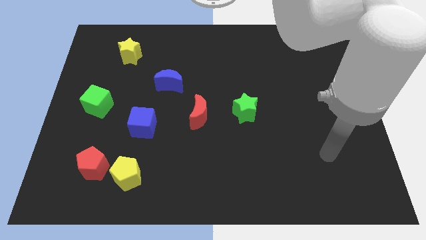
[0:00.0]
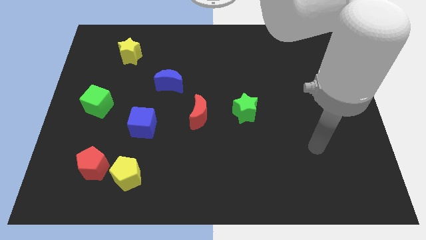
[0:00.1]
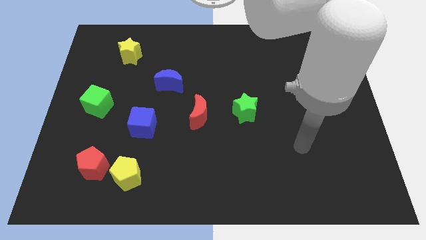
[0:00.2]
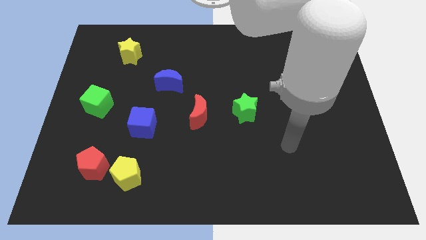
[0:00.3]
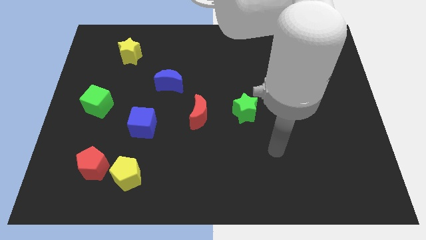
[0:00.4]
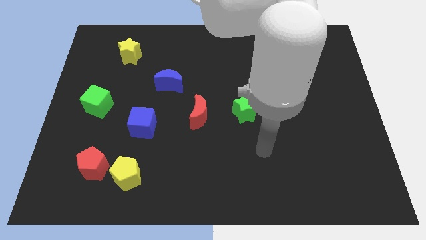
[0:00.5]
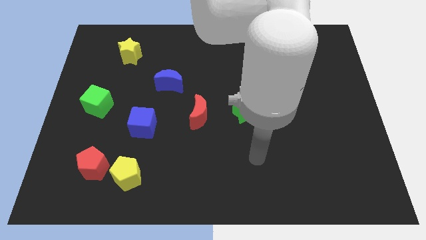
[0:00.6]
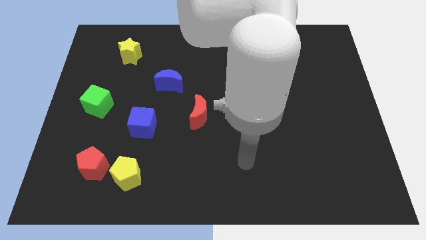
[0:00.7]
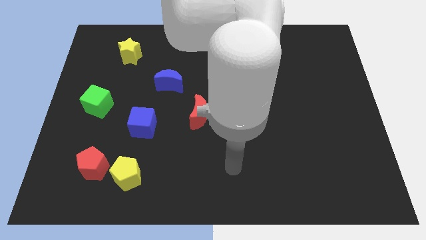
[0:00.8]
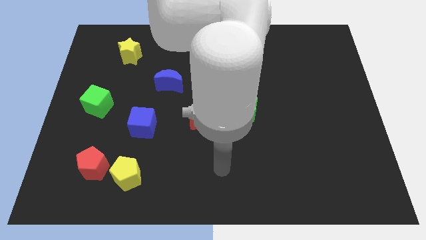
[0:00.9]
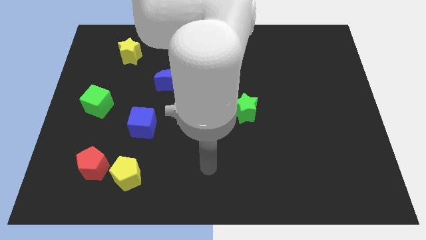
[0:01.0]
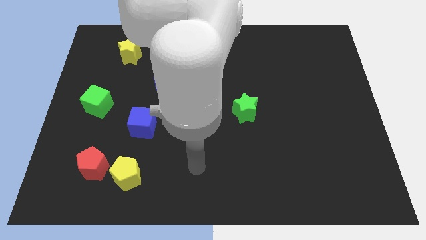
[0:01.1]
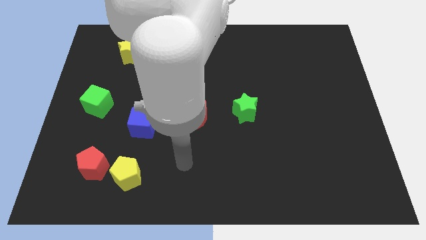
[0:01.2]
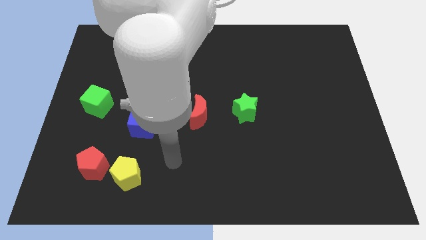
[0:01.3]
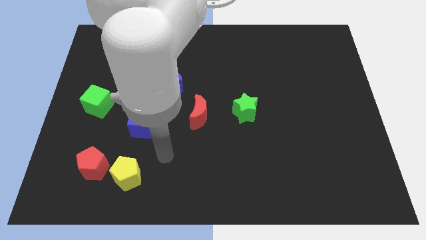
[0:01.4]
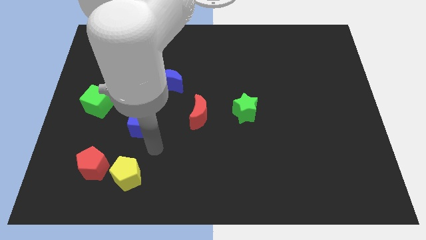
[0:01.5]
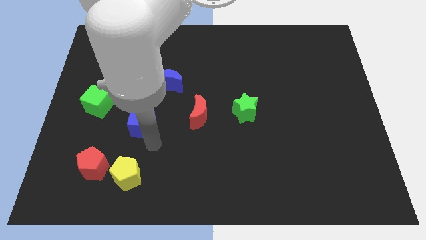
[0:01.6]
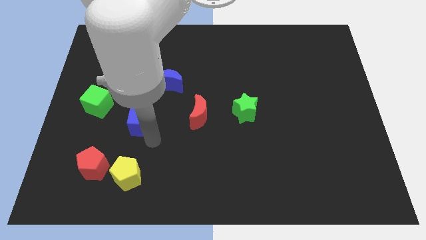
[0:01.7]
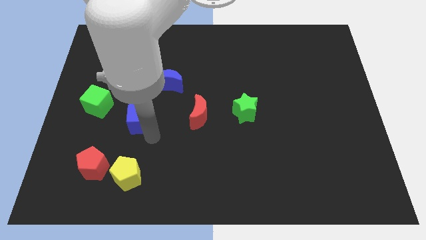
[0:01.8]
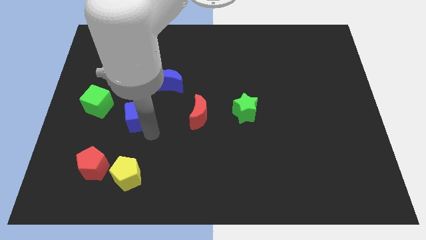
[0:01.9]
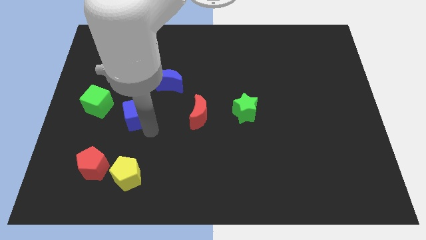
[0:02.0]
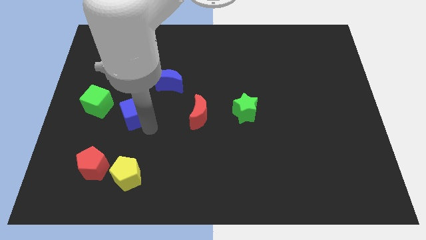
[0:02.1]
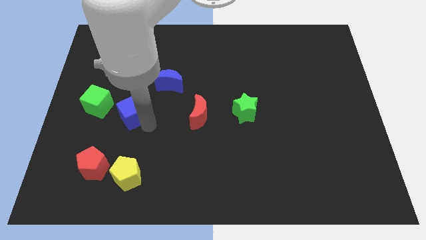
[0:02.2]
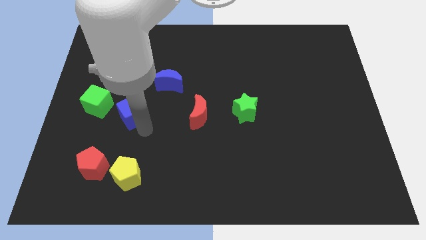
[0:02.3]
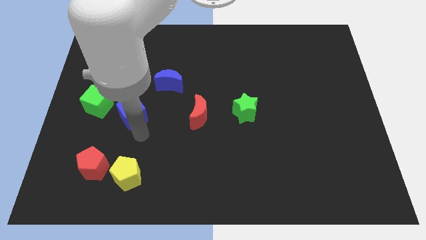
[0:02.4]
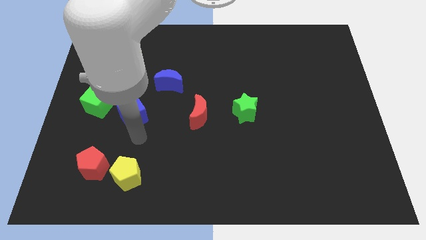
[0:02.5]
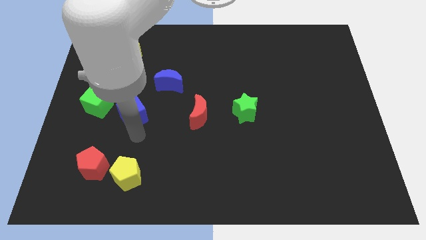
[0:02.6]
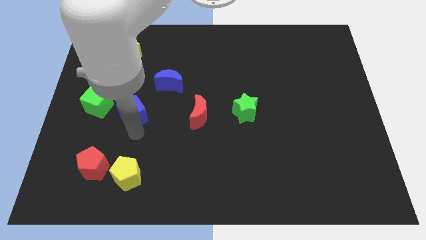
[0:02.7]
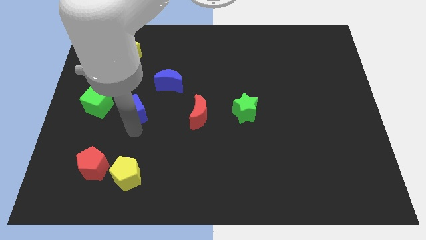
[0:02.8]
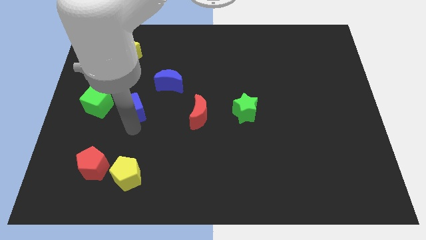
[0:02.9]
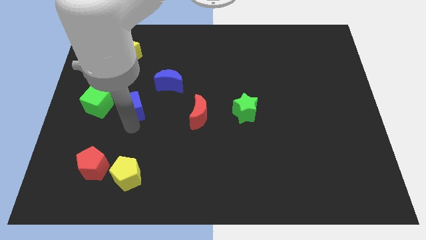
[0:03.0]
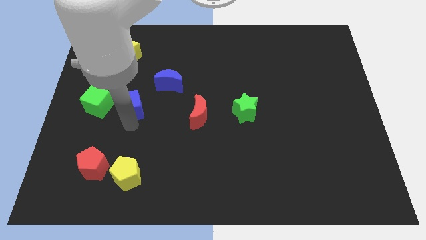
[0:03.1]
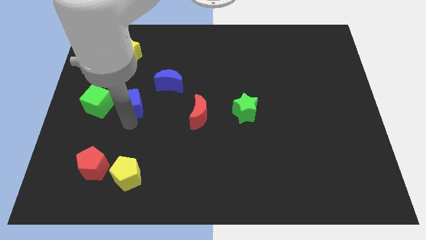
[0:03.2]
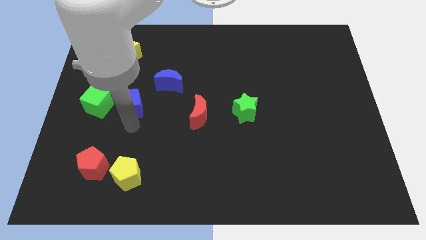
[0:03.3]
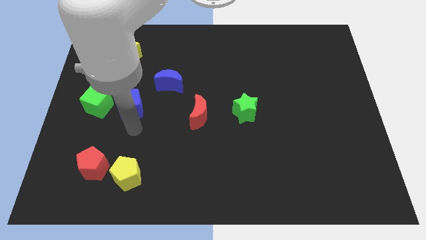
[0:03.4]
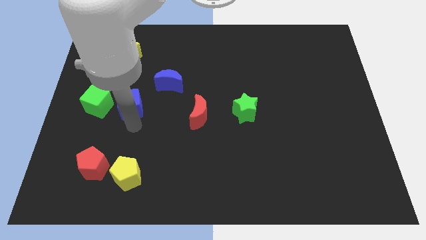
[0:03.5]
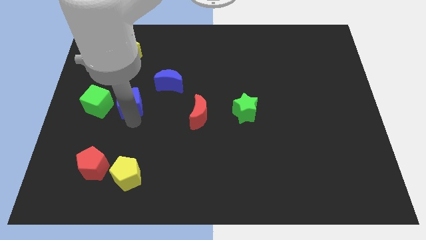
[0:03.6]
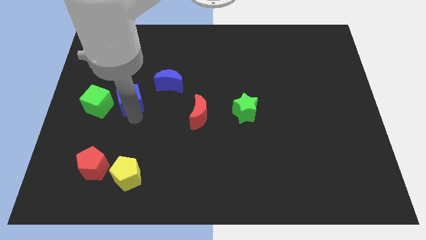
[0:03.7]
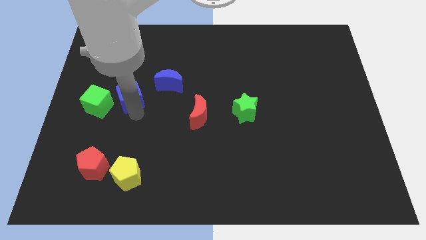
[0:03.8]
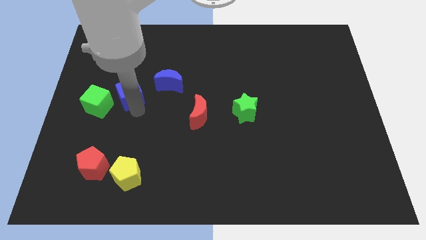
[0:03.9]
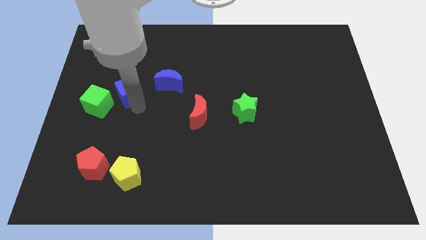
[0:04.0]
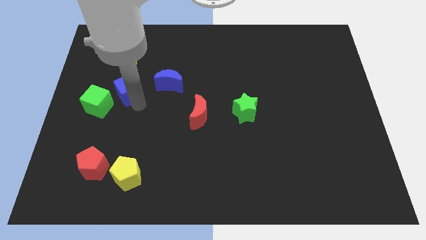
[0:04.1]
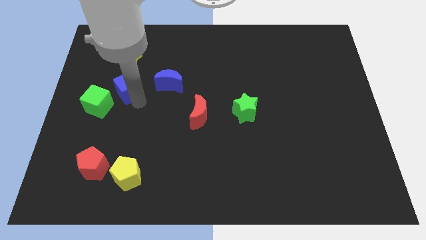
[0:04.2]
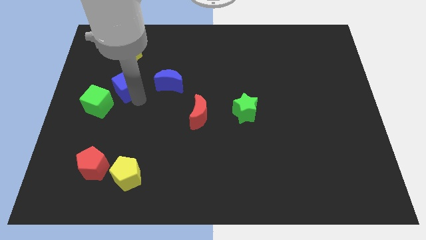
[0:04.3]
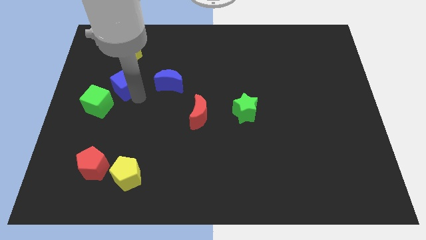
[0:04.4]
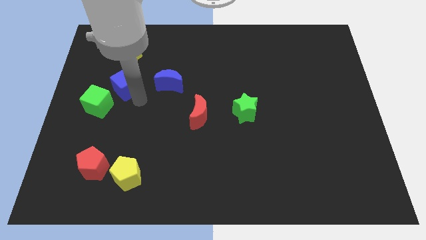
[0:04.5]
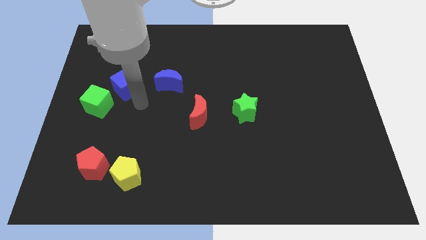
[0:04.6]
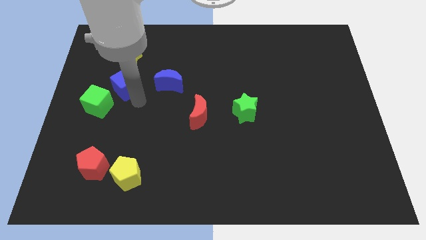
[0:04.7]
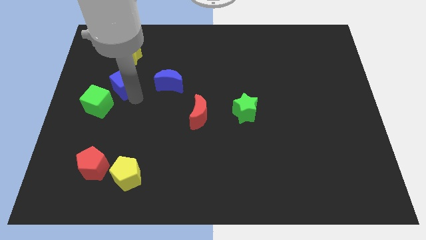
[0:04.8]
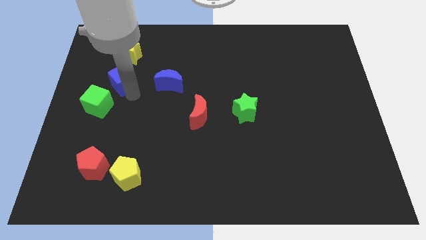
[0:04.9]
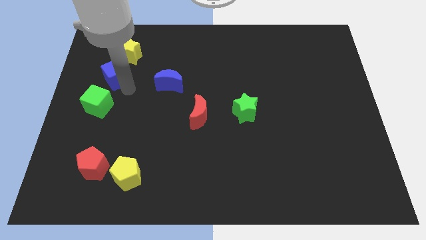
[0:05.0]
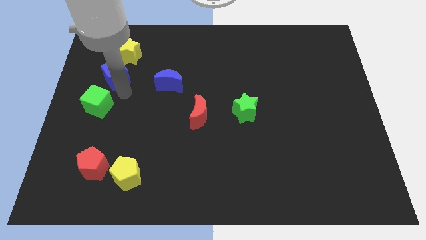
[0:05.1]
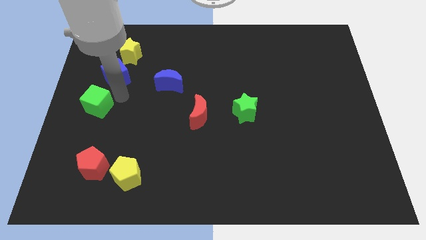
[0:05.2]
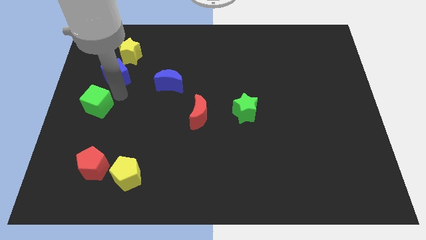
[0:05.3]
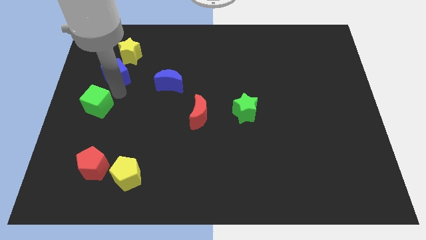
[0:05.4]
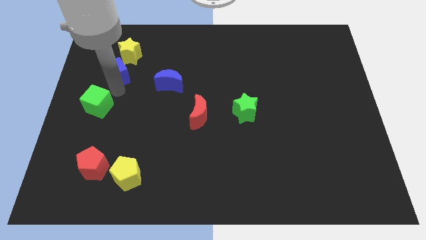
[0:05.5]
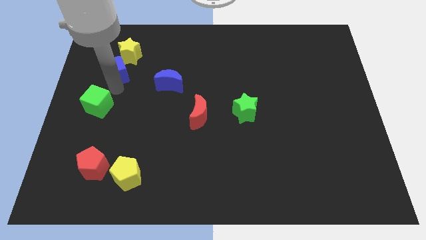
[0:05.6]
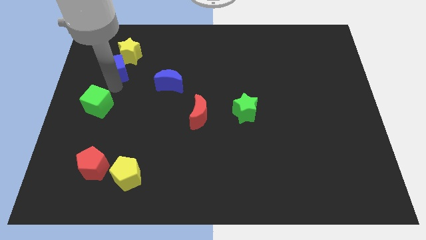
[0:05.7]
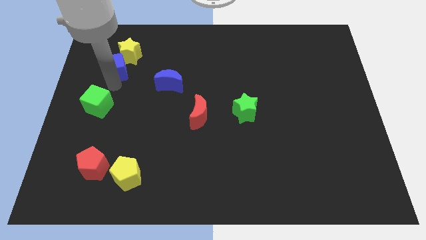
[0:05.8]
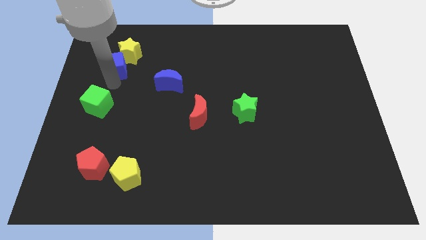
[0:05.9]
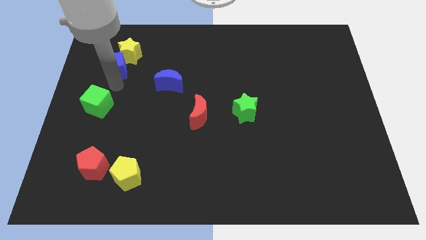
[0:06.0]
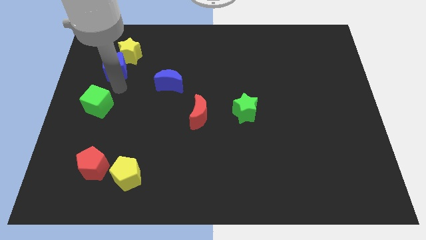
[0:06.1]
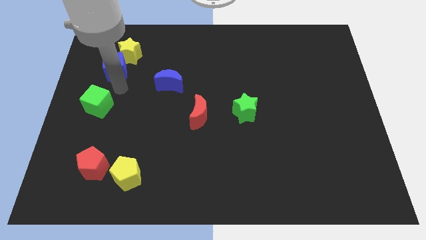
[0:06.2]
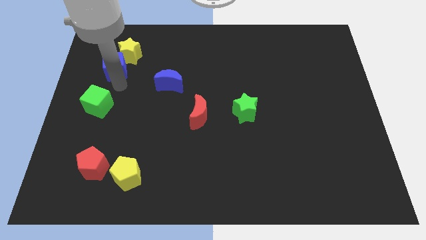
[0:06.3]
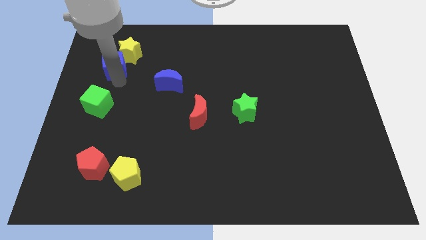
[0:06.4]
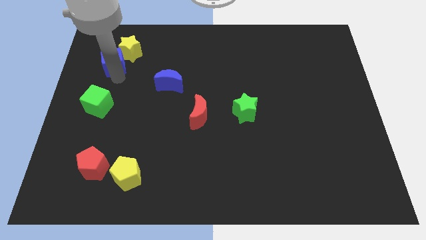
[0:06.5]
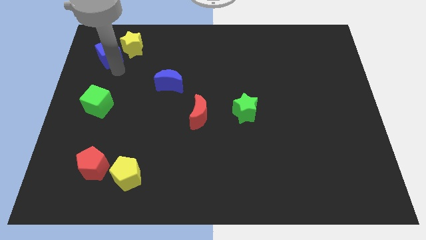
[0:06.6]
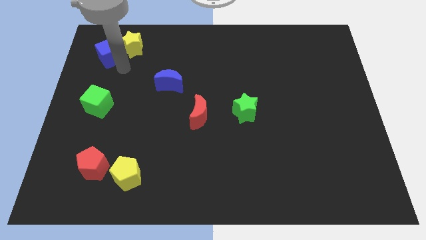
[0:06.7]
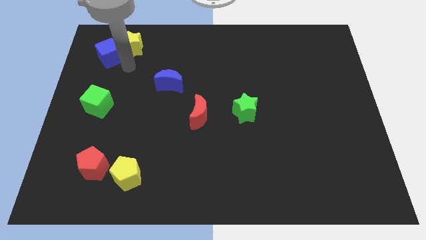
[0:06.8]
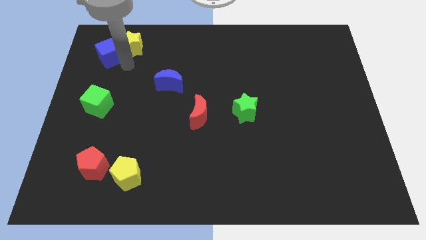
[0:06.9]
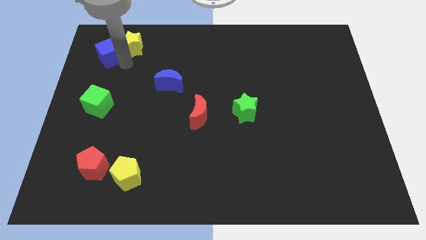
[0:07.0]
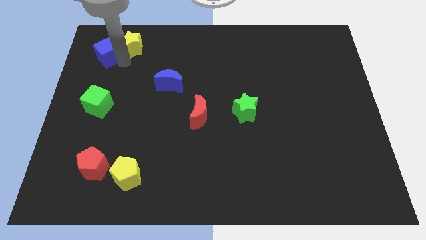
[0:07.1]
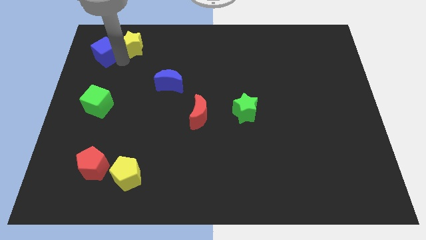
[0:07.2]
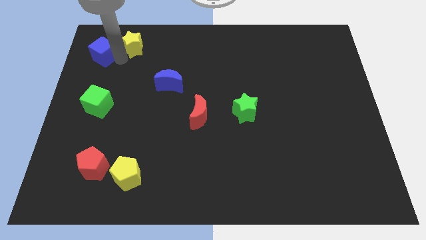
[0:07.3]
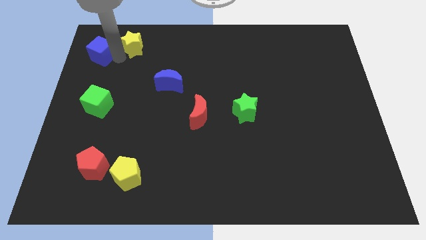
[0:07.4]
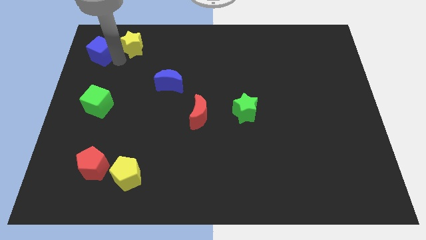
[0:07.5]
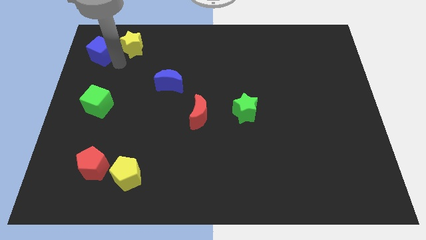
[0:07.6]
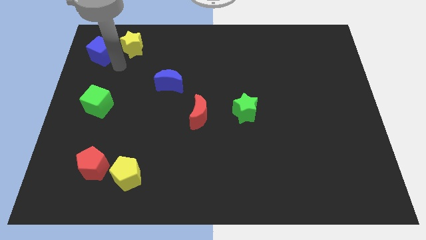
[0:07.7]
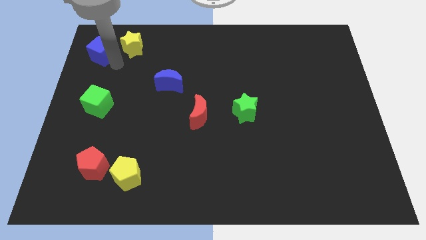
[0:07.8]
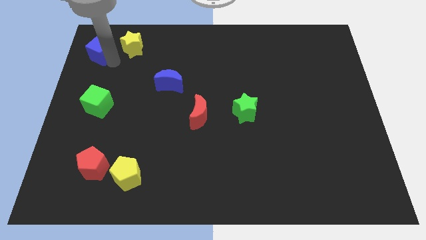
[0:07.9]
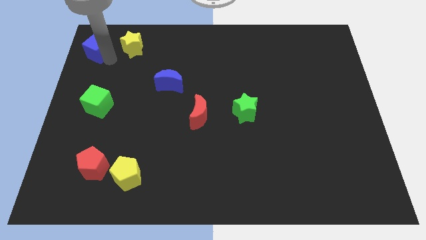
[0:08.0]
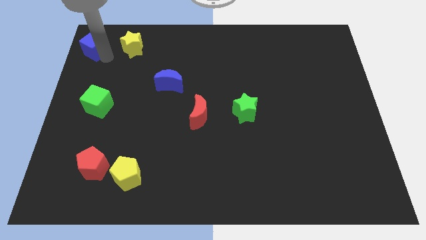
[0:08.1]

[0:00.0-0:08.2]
slide the blue cube to the top left
